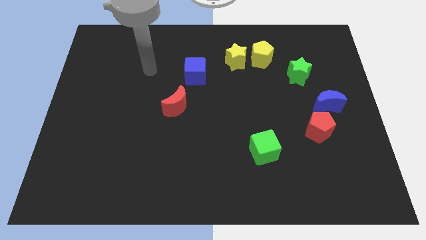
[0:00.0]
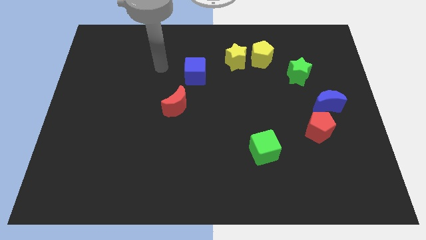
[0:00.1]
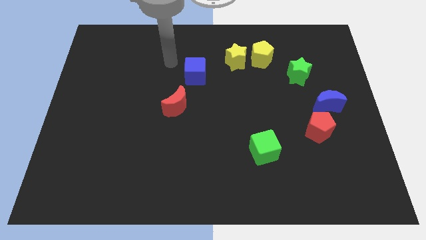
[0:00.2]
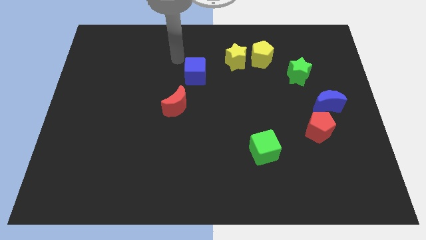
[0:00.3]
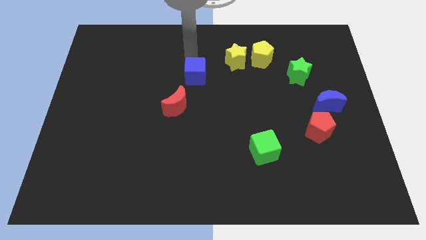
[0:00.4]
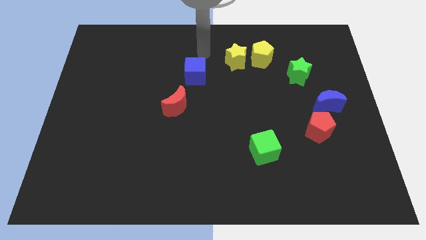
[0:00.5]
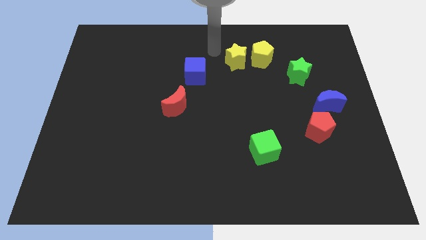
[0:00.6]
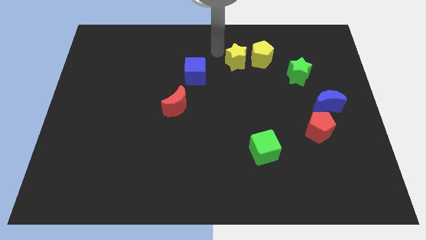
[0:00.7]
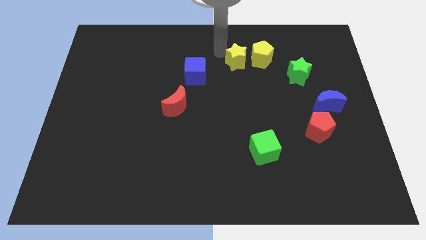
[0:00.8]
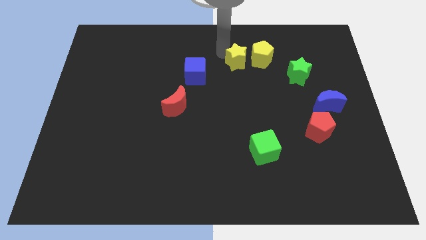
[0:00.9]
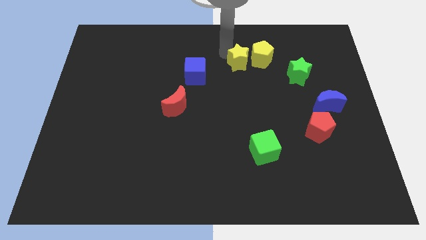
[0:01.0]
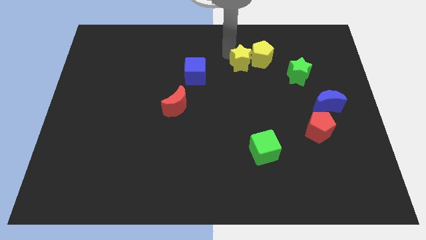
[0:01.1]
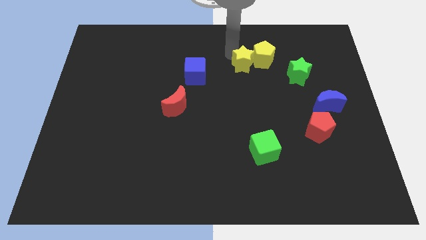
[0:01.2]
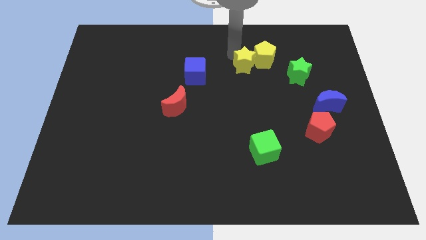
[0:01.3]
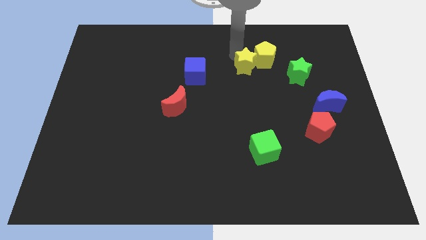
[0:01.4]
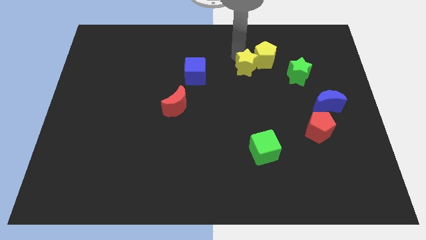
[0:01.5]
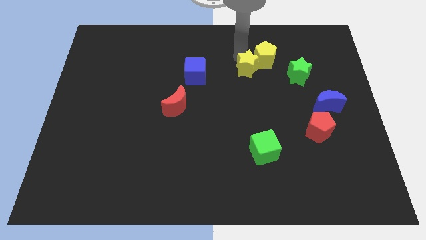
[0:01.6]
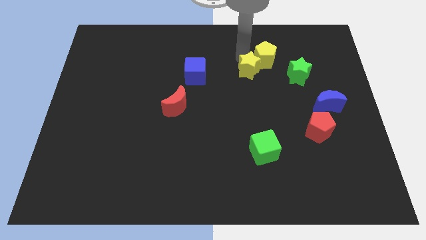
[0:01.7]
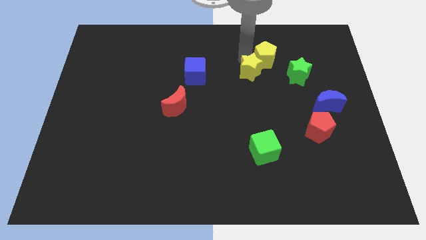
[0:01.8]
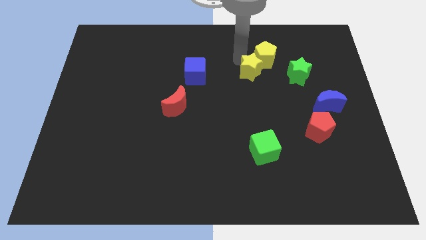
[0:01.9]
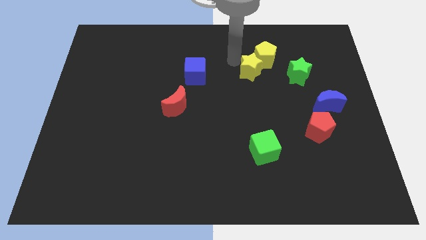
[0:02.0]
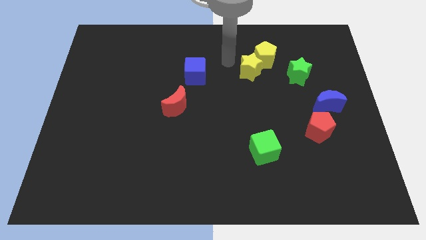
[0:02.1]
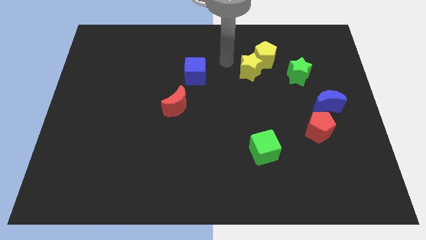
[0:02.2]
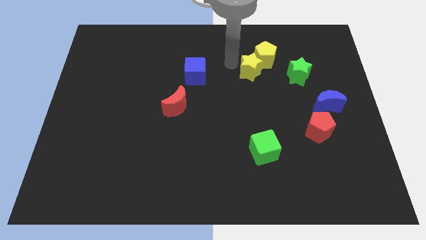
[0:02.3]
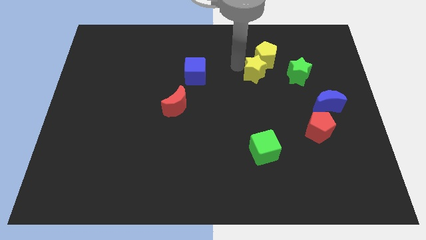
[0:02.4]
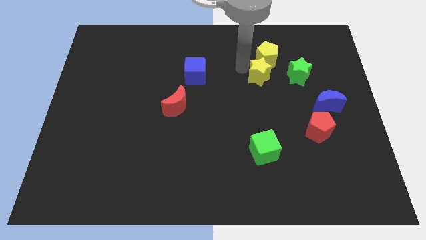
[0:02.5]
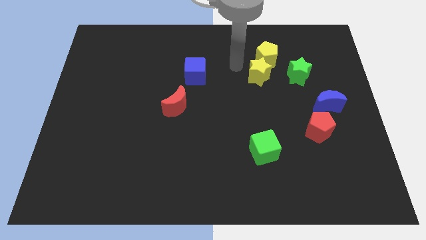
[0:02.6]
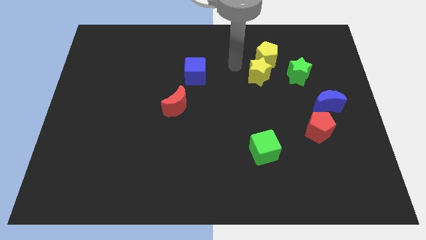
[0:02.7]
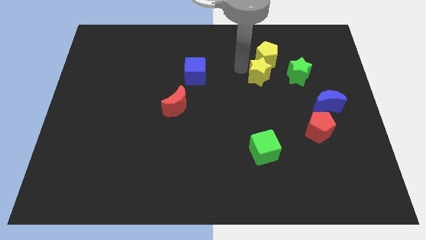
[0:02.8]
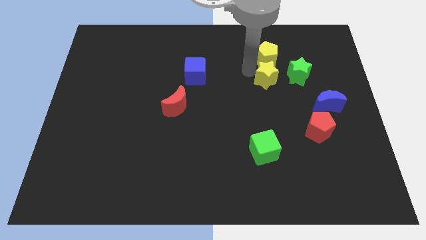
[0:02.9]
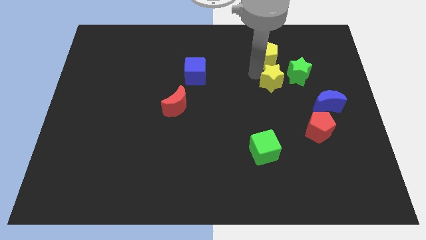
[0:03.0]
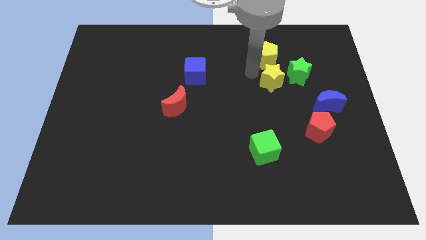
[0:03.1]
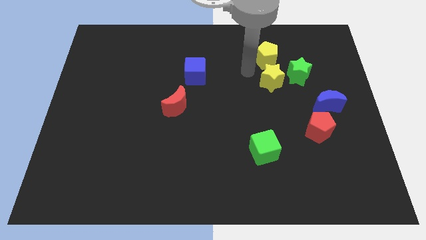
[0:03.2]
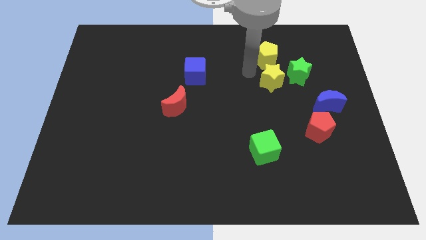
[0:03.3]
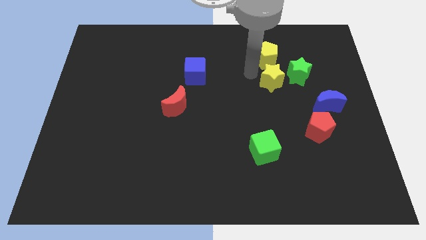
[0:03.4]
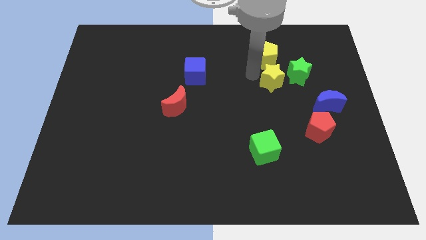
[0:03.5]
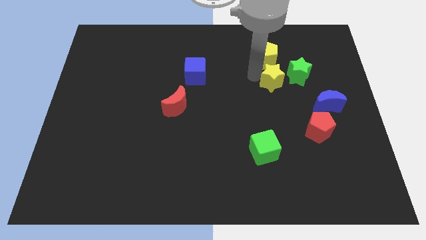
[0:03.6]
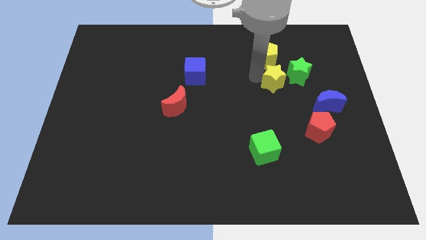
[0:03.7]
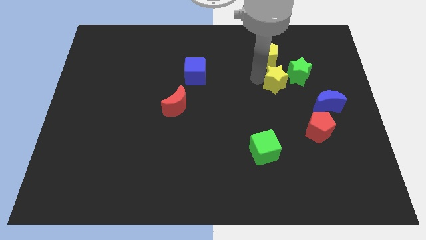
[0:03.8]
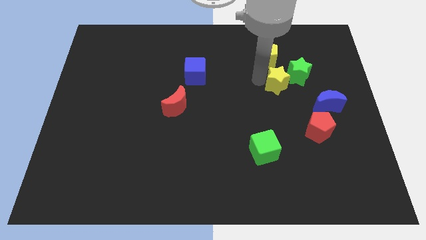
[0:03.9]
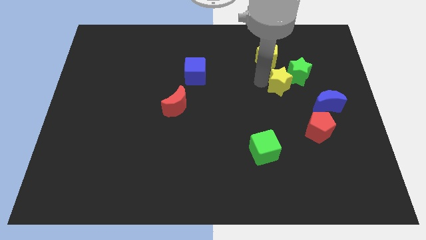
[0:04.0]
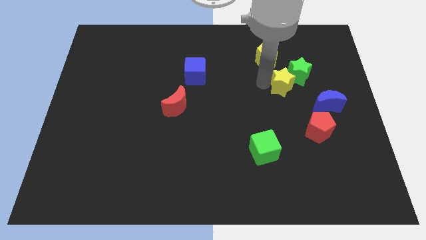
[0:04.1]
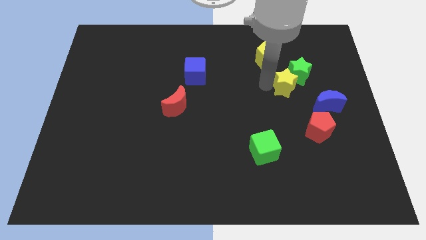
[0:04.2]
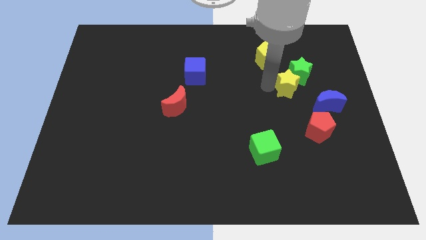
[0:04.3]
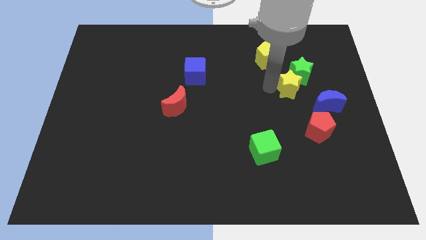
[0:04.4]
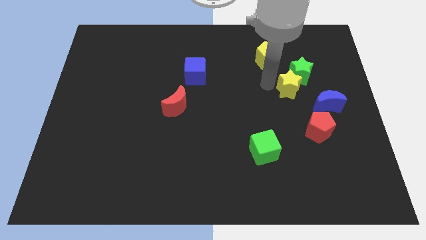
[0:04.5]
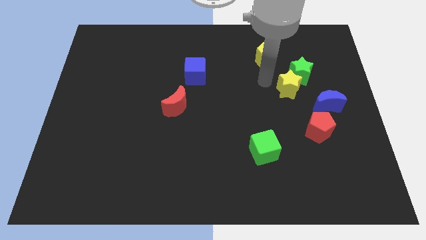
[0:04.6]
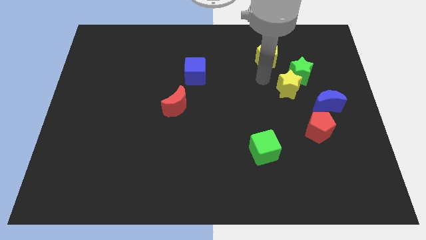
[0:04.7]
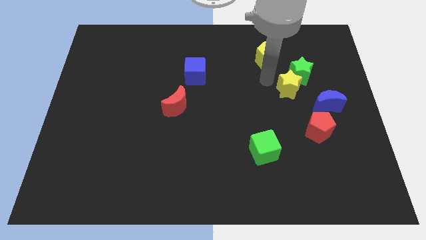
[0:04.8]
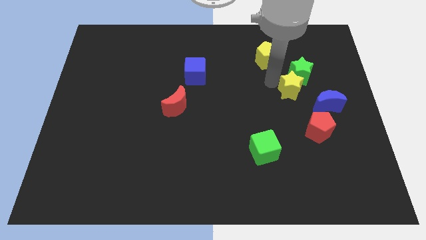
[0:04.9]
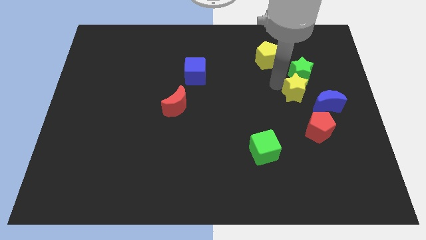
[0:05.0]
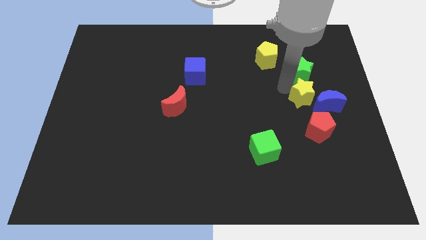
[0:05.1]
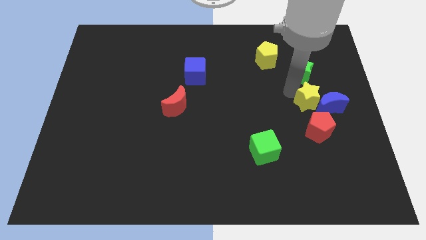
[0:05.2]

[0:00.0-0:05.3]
push the yellow star to the blue moon

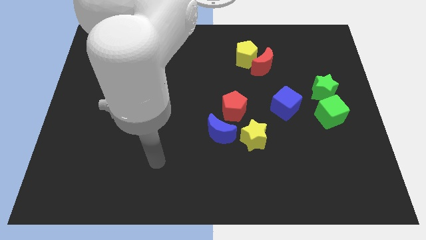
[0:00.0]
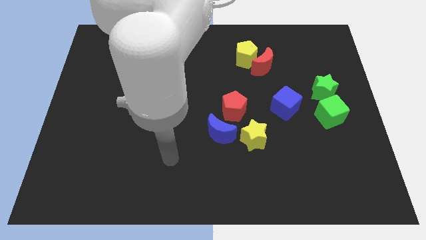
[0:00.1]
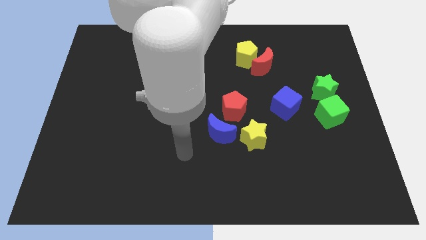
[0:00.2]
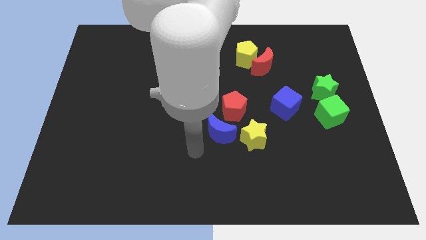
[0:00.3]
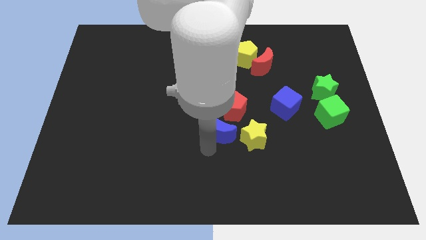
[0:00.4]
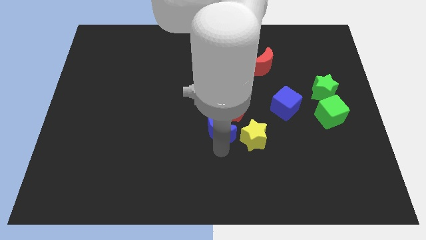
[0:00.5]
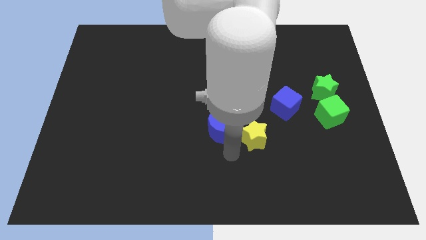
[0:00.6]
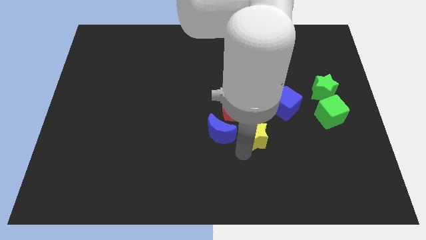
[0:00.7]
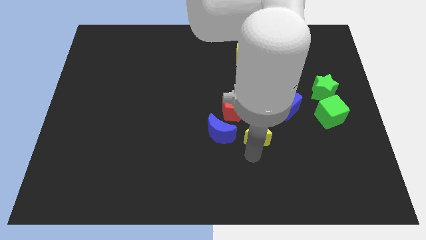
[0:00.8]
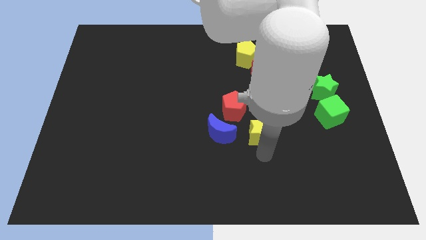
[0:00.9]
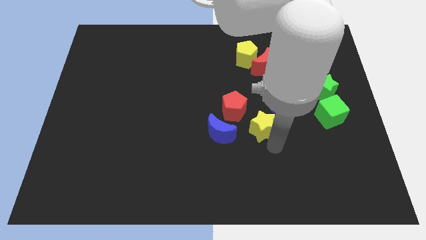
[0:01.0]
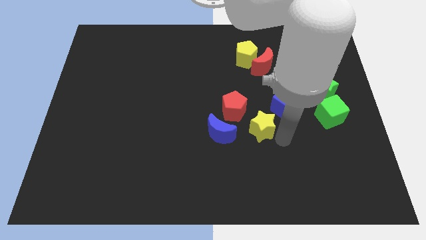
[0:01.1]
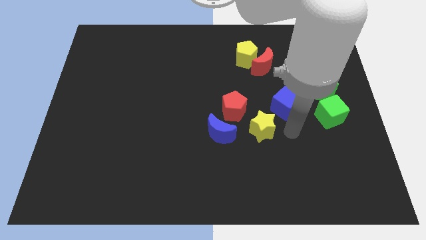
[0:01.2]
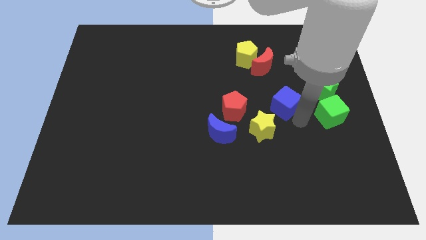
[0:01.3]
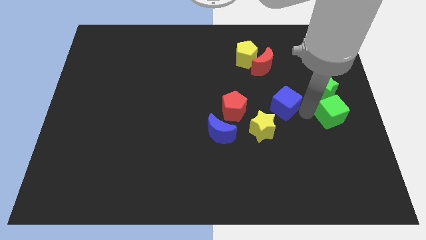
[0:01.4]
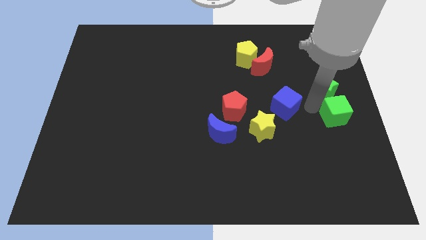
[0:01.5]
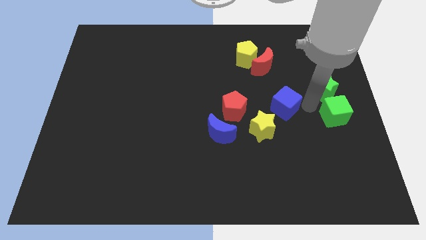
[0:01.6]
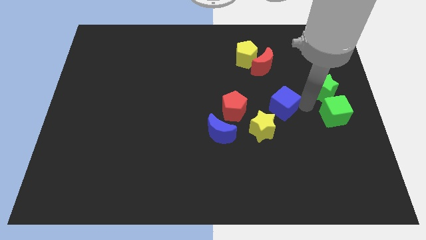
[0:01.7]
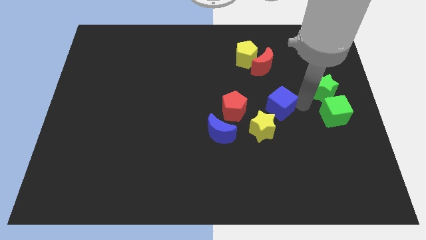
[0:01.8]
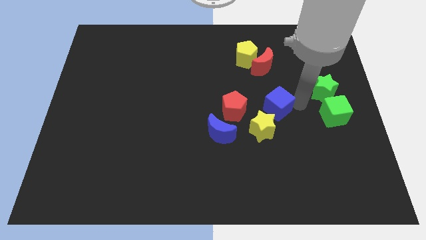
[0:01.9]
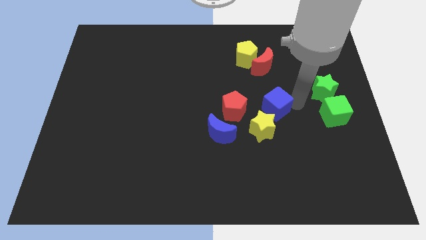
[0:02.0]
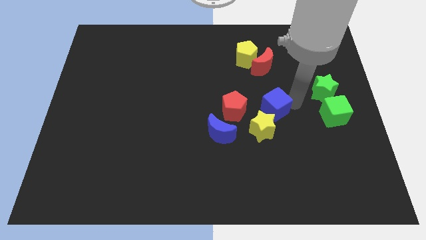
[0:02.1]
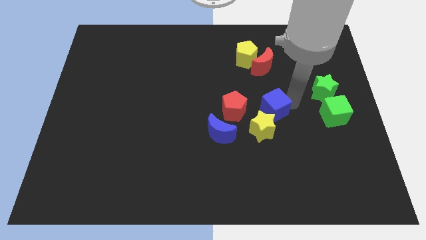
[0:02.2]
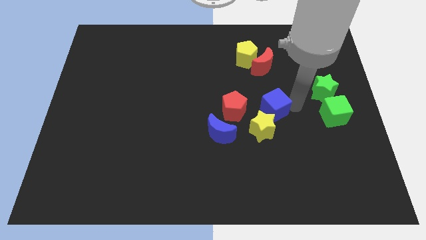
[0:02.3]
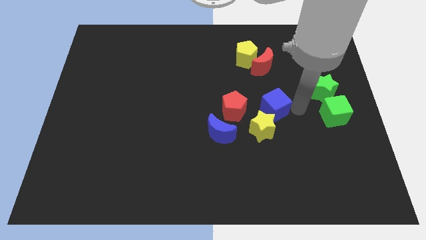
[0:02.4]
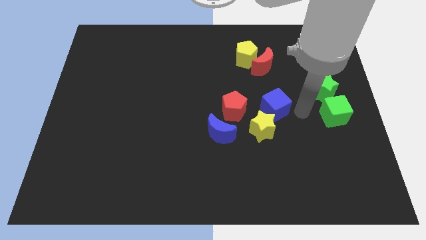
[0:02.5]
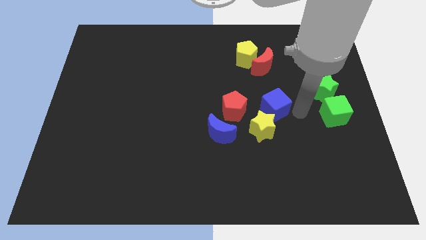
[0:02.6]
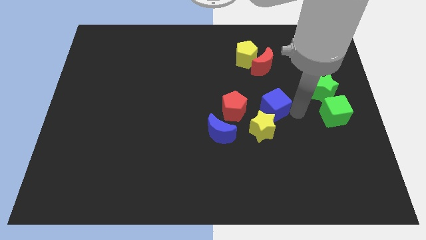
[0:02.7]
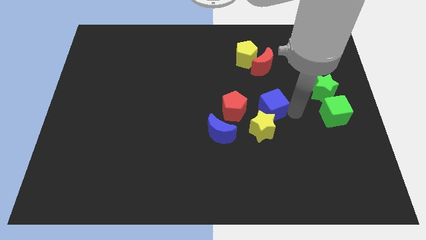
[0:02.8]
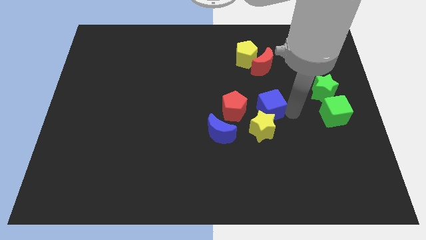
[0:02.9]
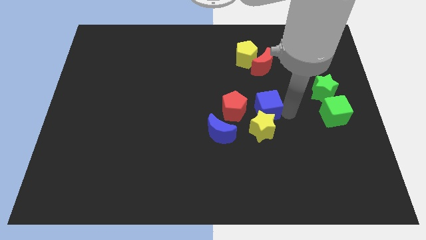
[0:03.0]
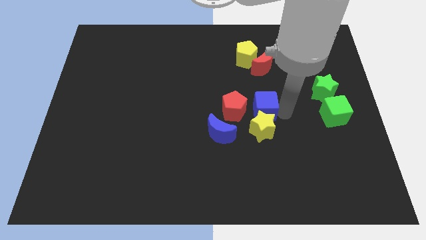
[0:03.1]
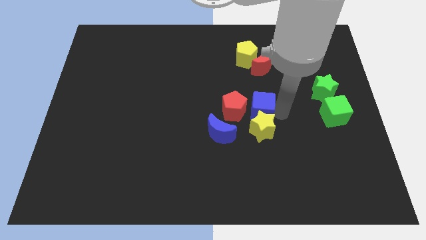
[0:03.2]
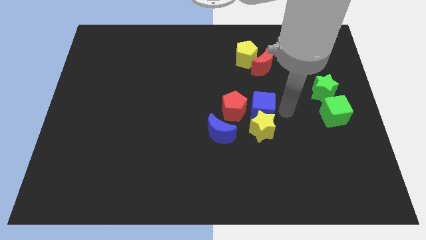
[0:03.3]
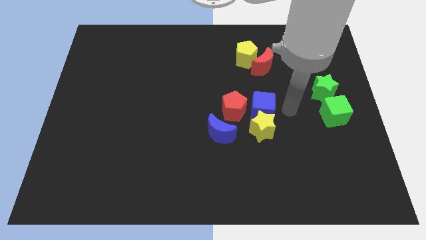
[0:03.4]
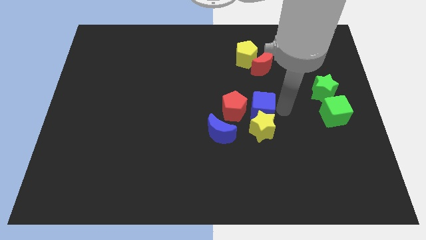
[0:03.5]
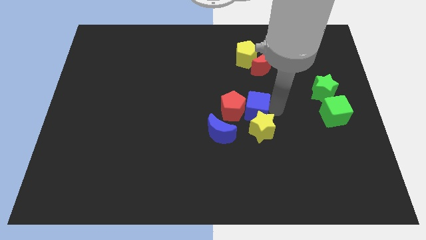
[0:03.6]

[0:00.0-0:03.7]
move the blue cube to the red pentagon
